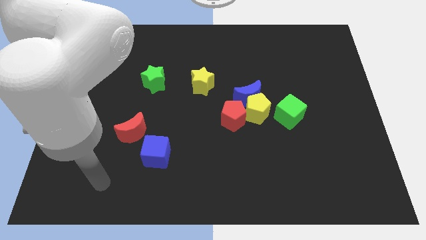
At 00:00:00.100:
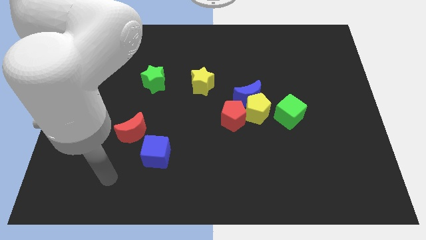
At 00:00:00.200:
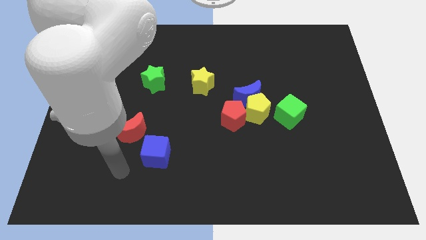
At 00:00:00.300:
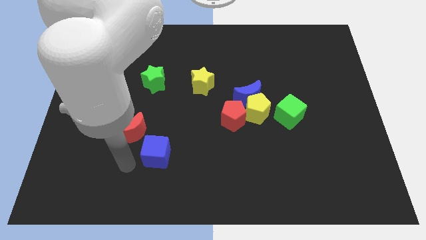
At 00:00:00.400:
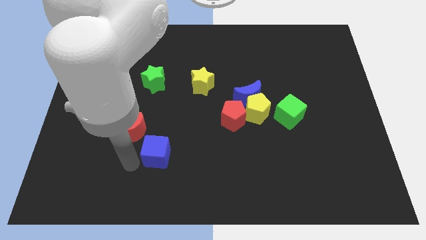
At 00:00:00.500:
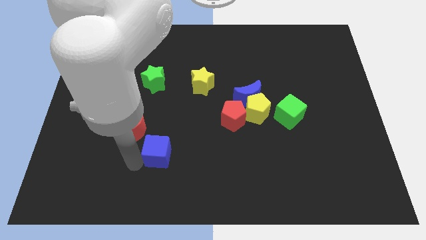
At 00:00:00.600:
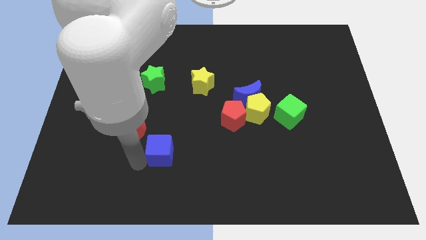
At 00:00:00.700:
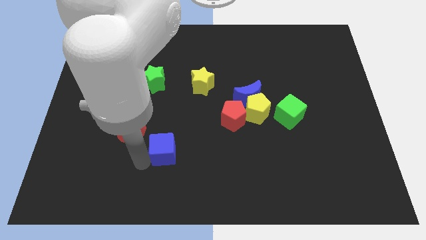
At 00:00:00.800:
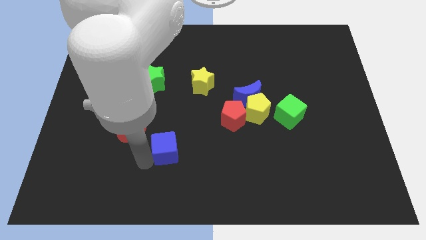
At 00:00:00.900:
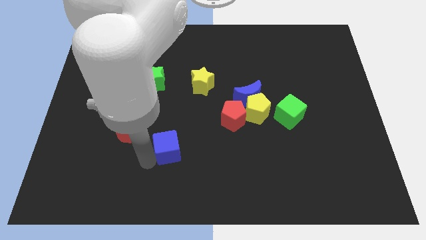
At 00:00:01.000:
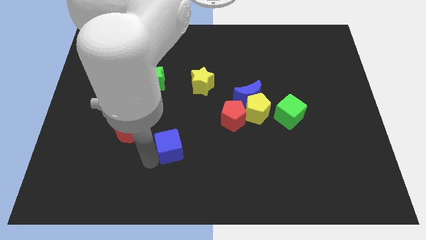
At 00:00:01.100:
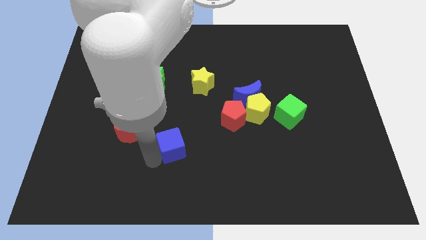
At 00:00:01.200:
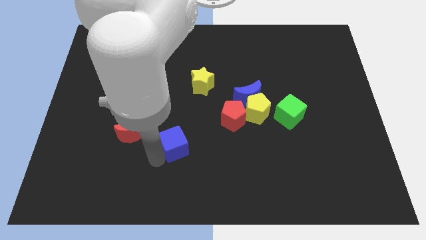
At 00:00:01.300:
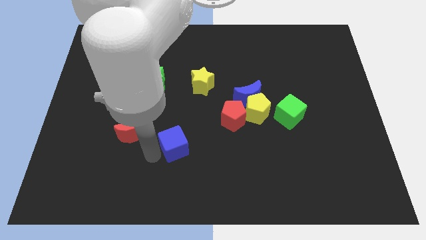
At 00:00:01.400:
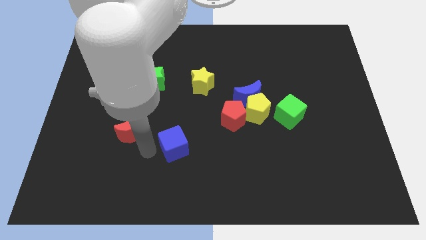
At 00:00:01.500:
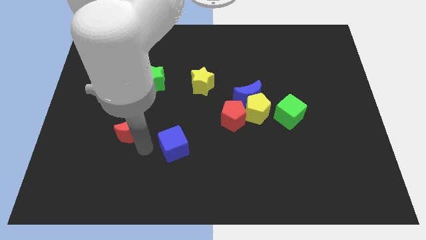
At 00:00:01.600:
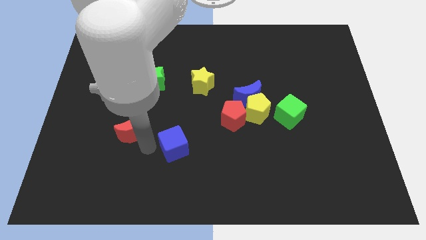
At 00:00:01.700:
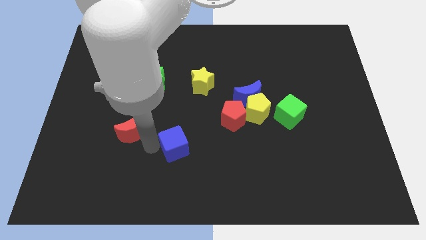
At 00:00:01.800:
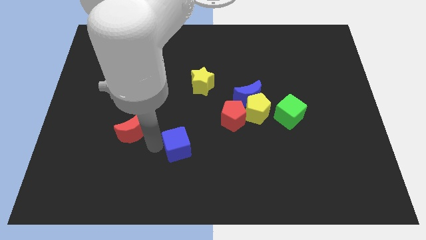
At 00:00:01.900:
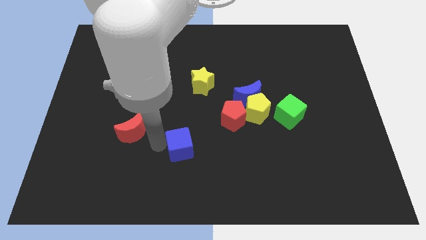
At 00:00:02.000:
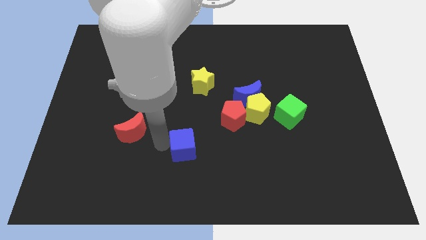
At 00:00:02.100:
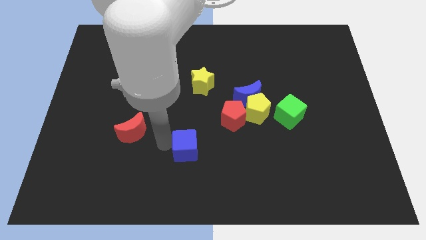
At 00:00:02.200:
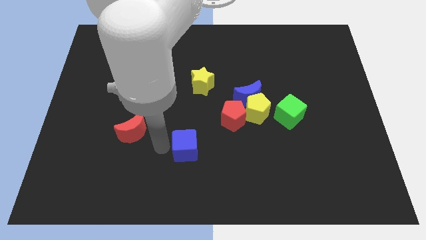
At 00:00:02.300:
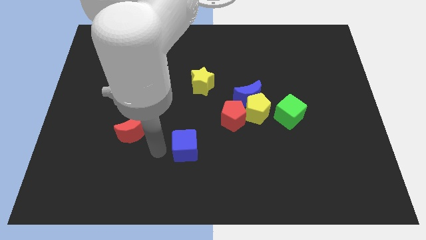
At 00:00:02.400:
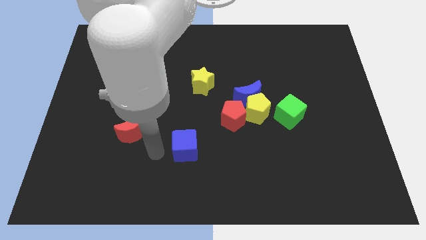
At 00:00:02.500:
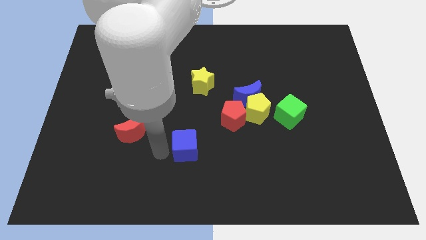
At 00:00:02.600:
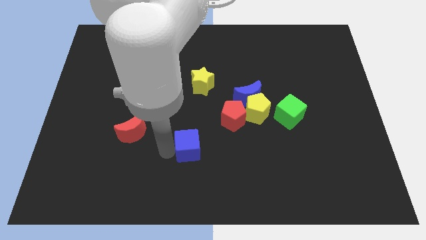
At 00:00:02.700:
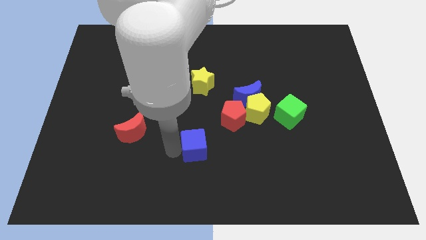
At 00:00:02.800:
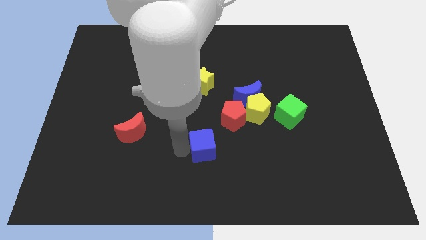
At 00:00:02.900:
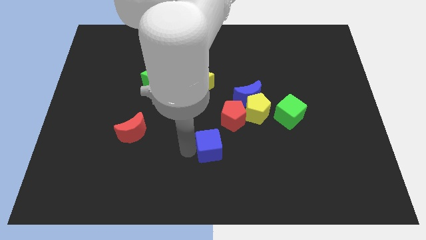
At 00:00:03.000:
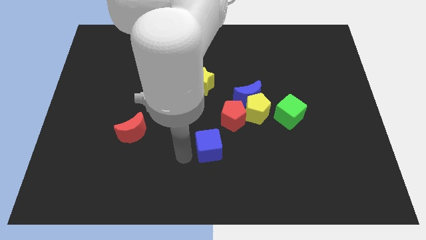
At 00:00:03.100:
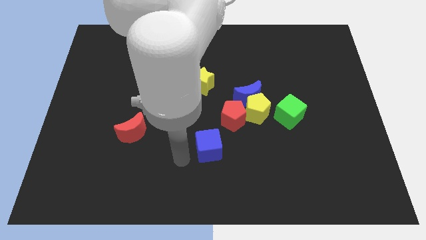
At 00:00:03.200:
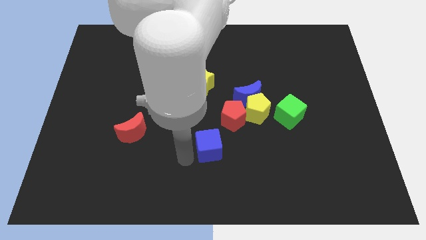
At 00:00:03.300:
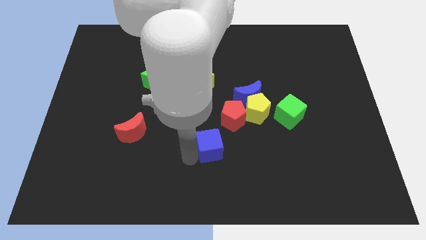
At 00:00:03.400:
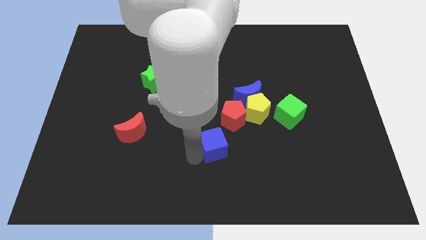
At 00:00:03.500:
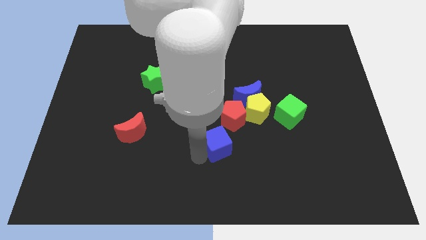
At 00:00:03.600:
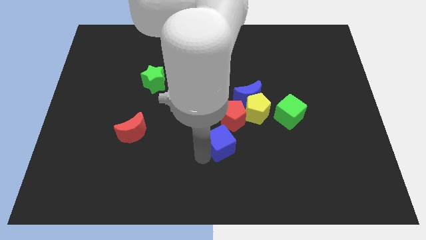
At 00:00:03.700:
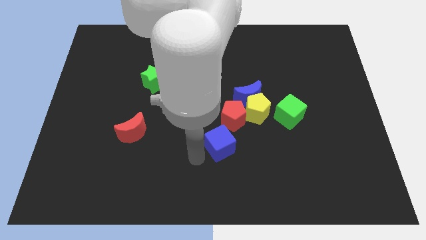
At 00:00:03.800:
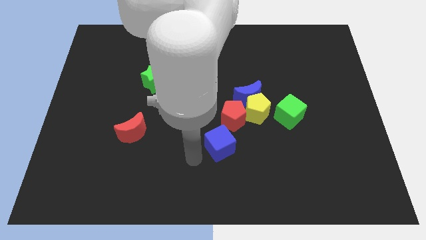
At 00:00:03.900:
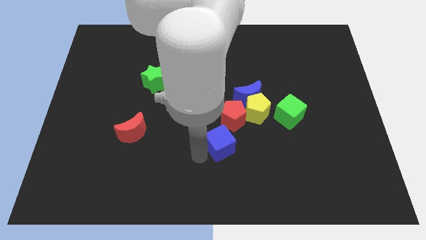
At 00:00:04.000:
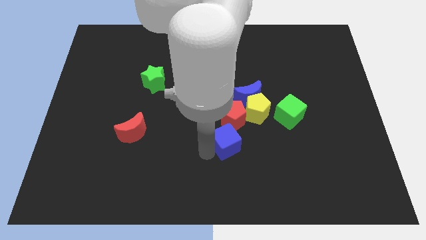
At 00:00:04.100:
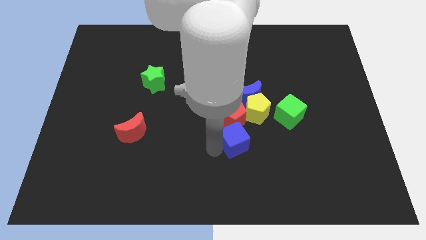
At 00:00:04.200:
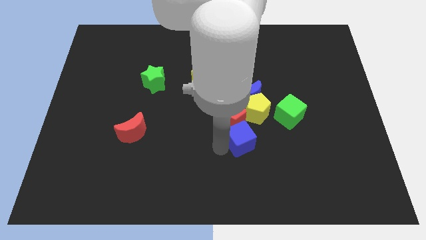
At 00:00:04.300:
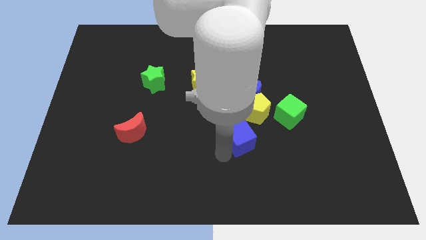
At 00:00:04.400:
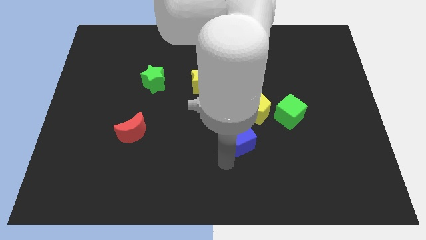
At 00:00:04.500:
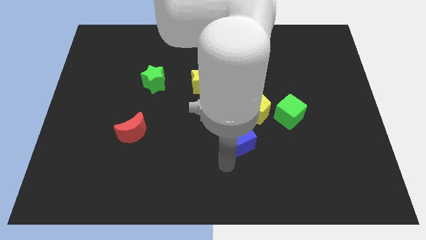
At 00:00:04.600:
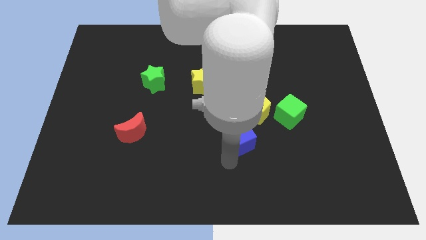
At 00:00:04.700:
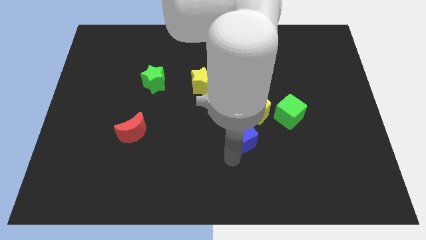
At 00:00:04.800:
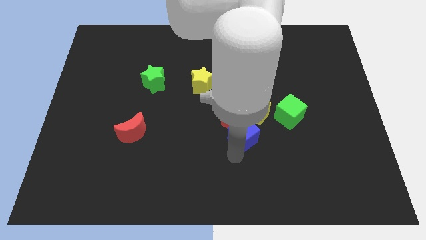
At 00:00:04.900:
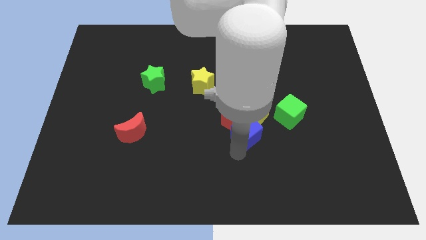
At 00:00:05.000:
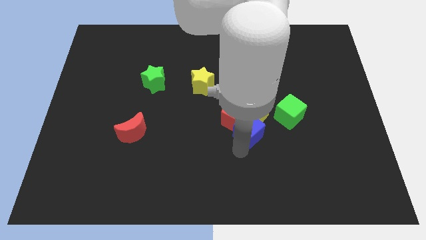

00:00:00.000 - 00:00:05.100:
move the blue cube towards the yellow pentagon

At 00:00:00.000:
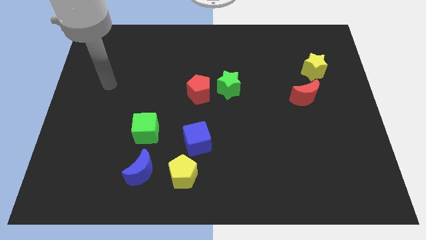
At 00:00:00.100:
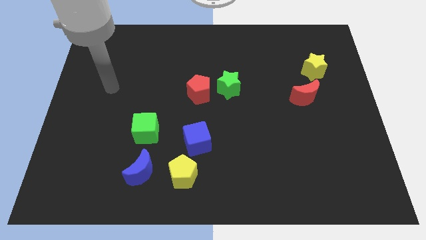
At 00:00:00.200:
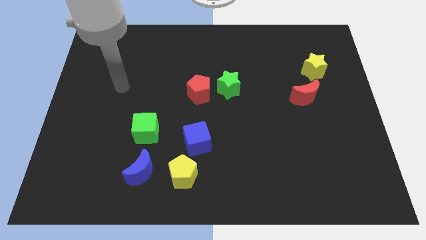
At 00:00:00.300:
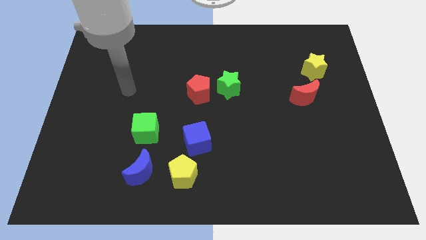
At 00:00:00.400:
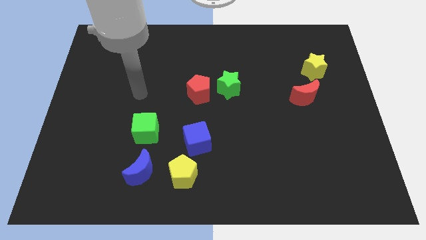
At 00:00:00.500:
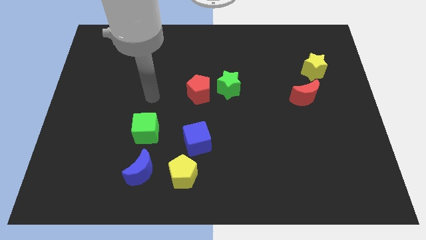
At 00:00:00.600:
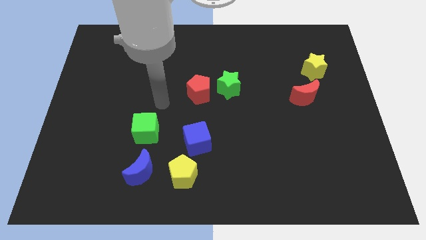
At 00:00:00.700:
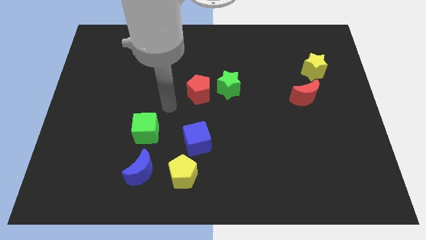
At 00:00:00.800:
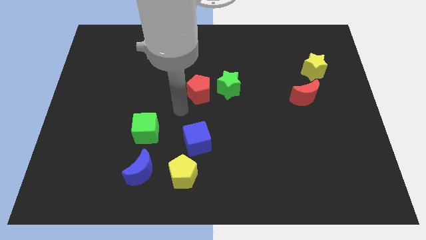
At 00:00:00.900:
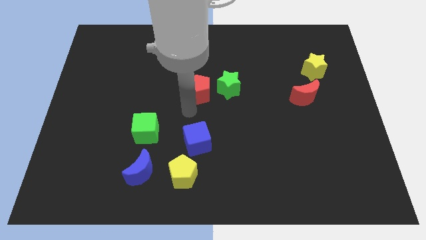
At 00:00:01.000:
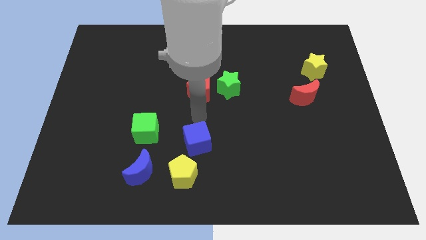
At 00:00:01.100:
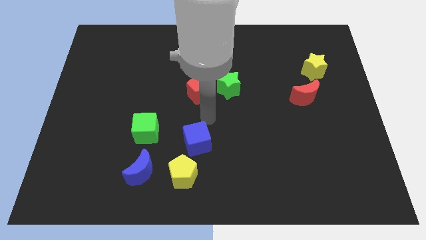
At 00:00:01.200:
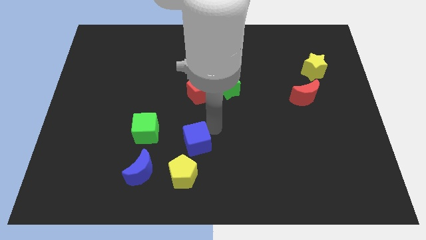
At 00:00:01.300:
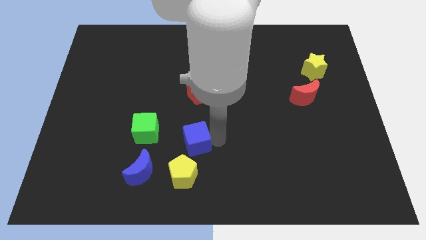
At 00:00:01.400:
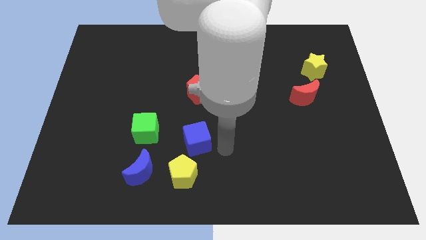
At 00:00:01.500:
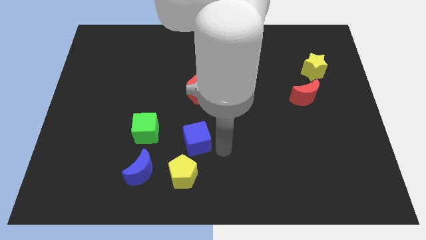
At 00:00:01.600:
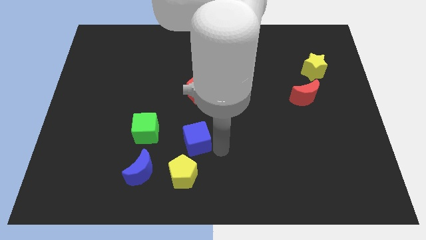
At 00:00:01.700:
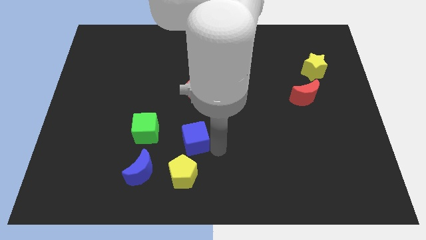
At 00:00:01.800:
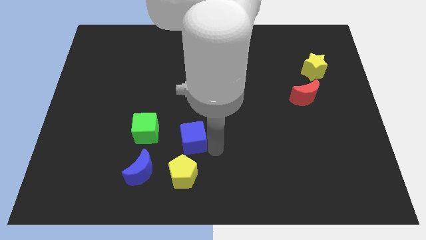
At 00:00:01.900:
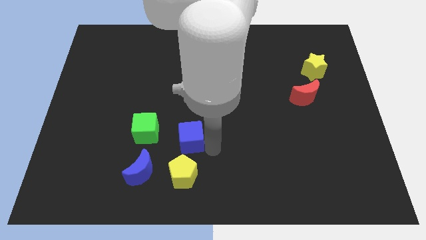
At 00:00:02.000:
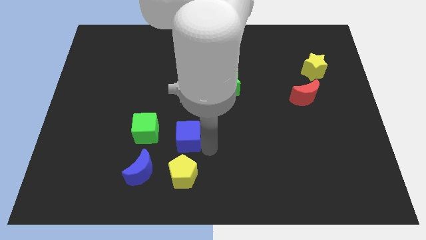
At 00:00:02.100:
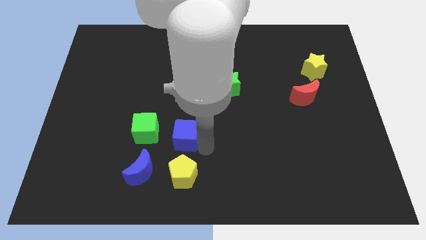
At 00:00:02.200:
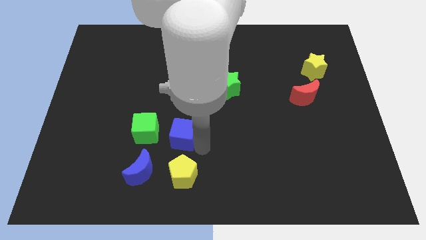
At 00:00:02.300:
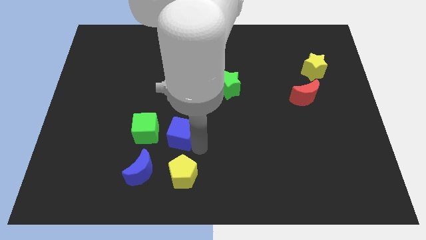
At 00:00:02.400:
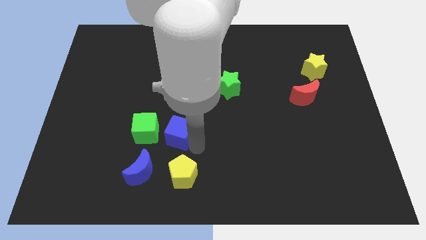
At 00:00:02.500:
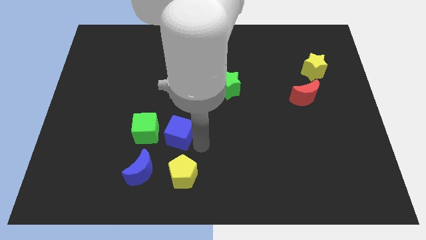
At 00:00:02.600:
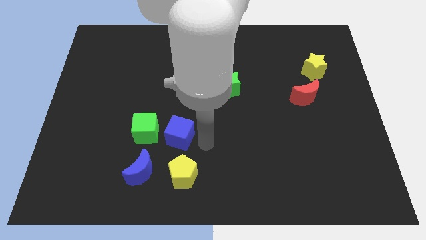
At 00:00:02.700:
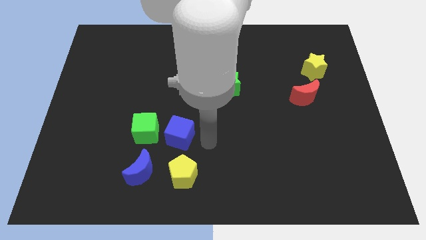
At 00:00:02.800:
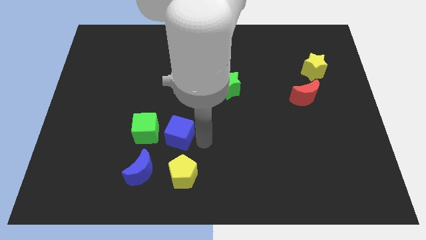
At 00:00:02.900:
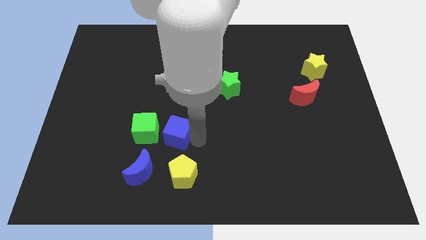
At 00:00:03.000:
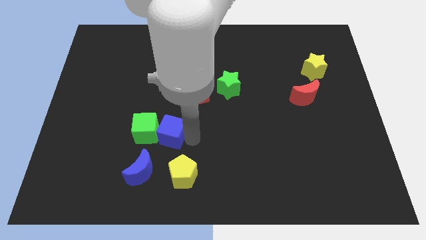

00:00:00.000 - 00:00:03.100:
slide the blue cube close to the green cube
